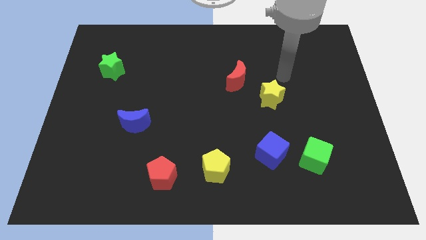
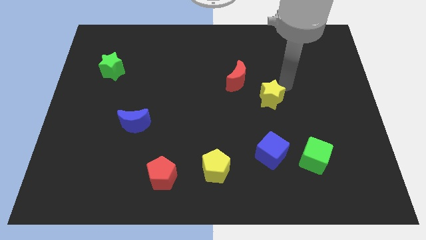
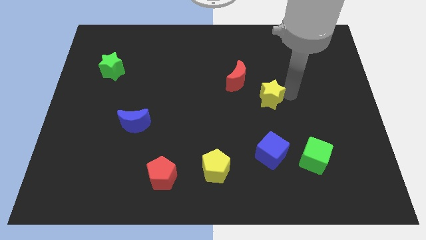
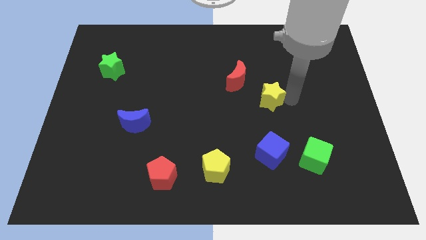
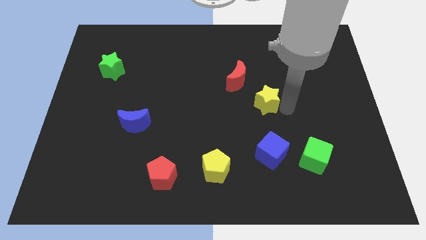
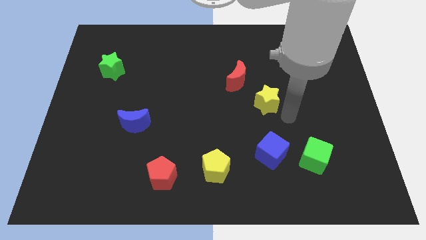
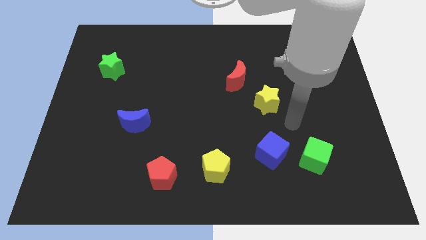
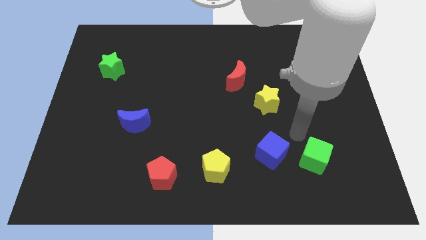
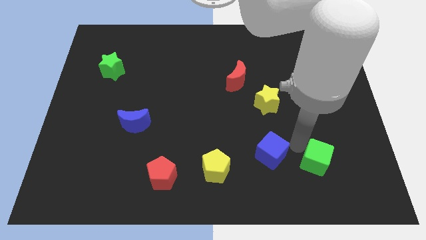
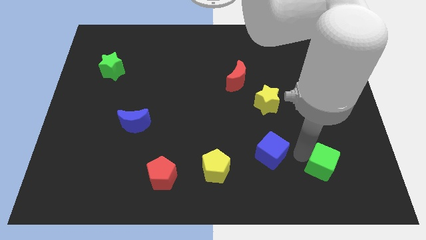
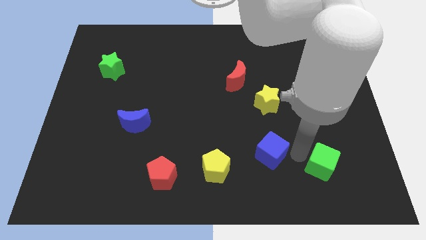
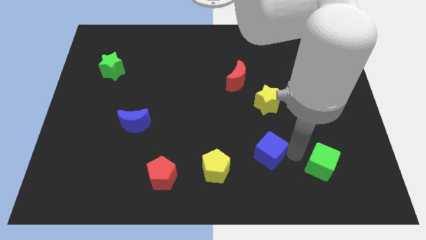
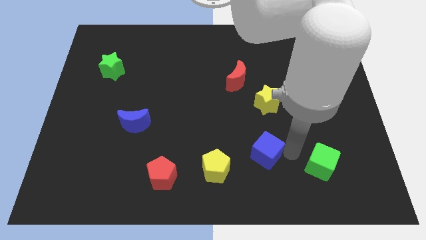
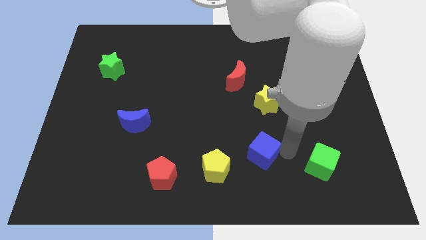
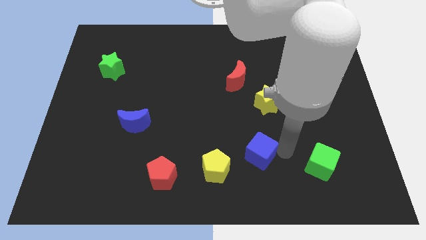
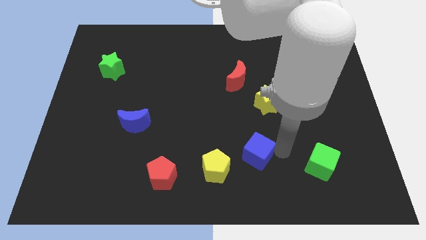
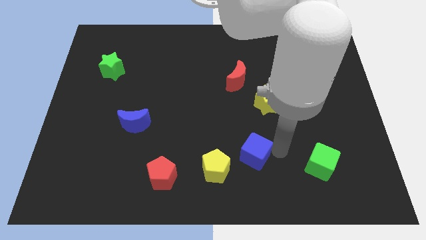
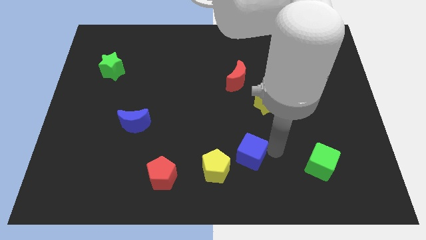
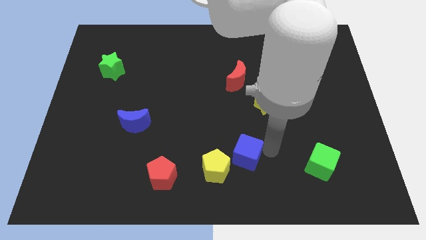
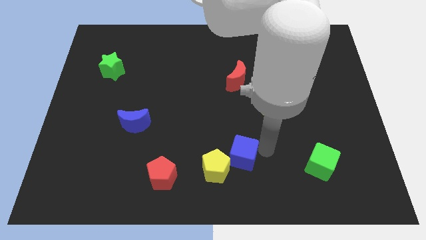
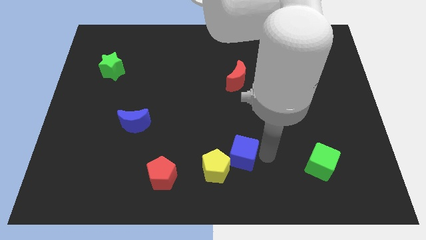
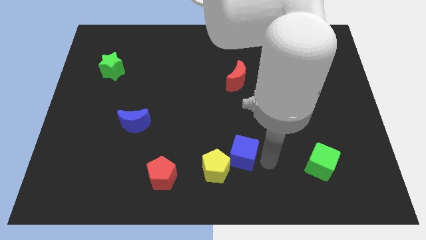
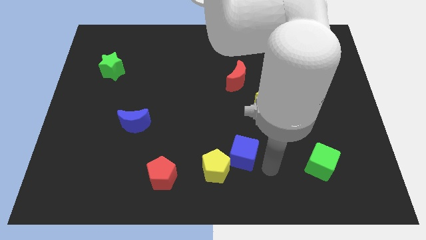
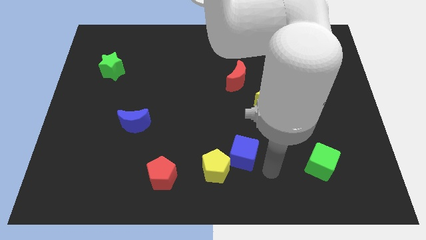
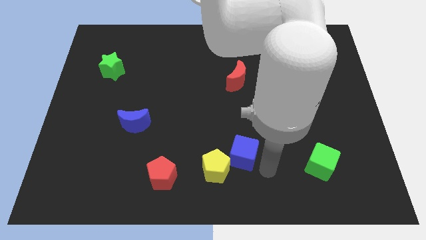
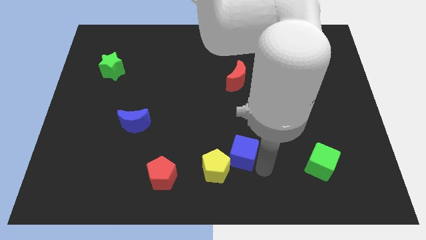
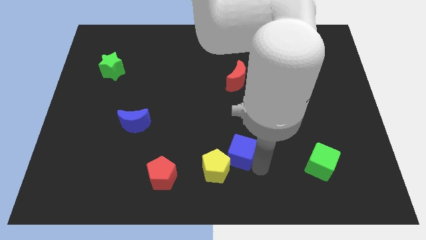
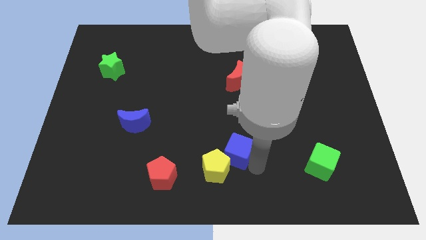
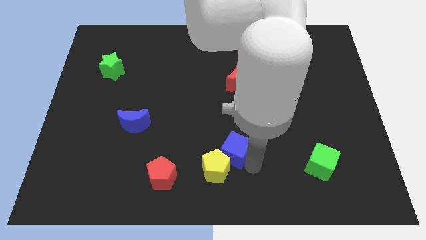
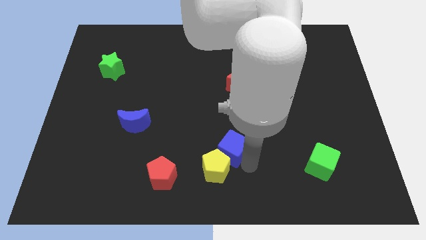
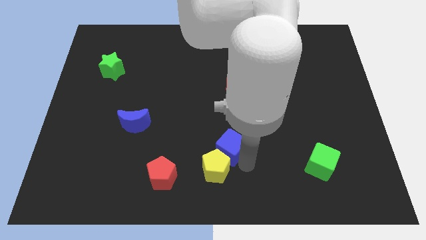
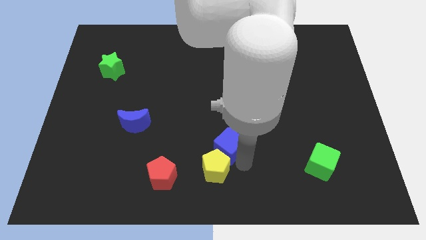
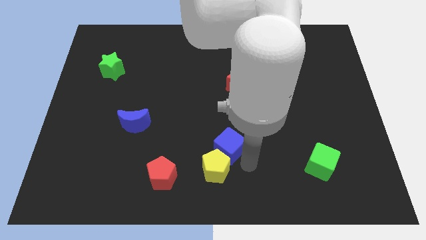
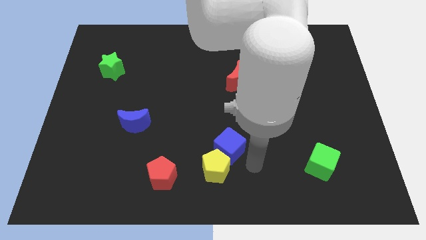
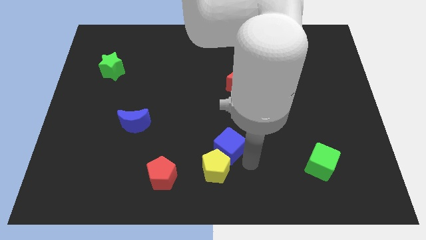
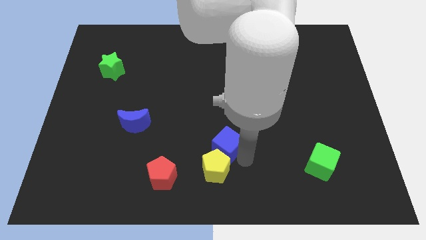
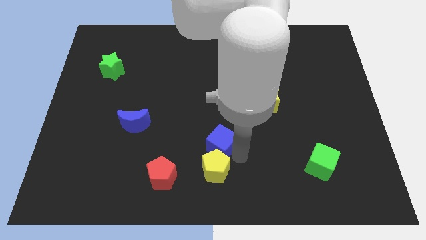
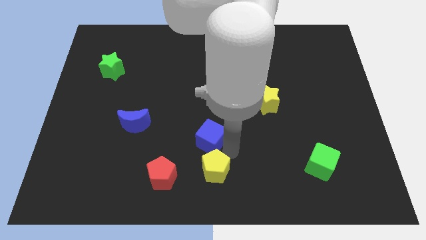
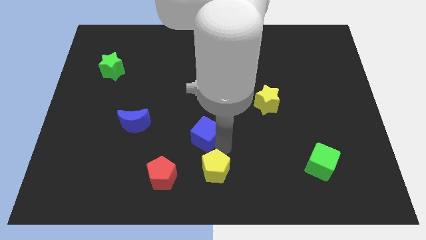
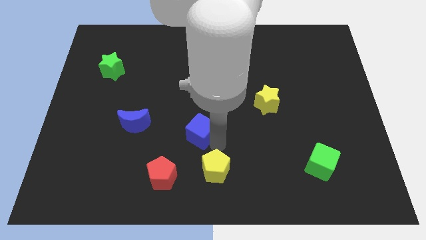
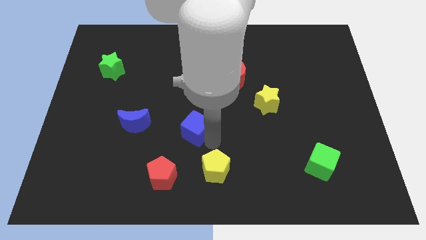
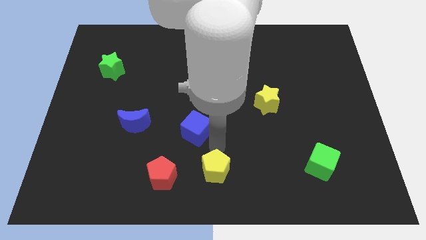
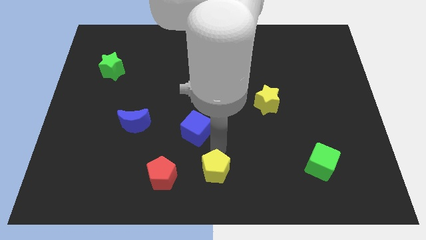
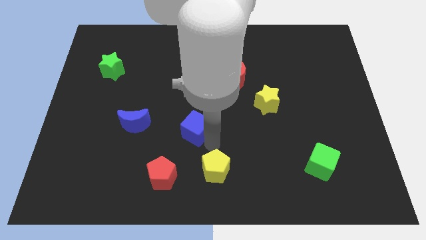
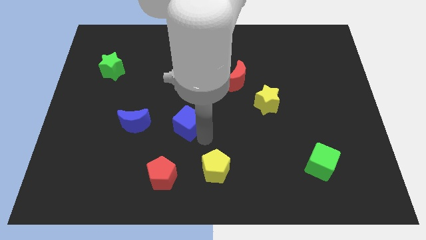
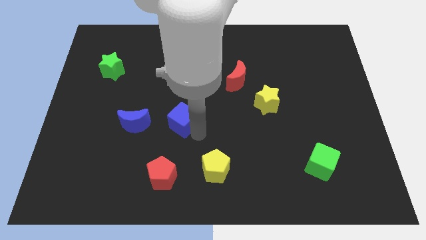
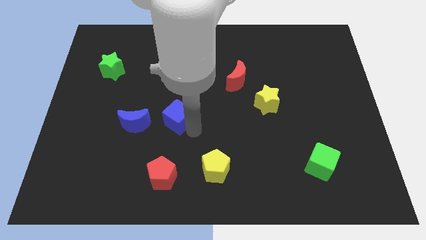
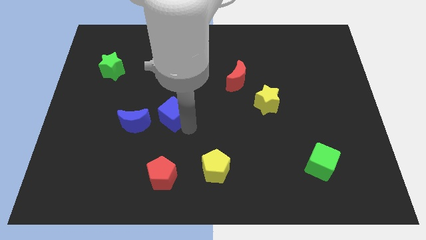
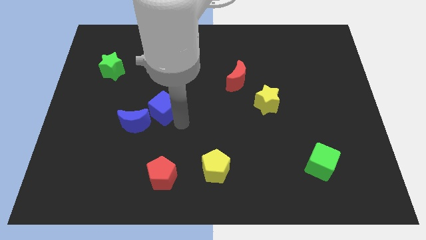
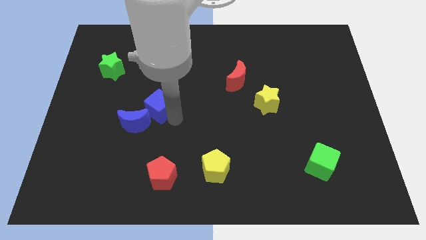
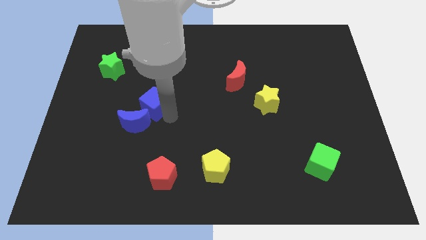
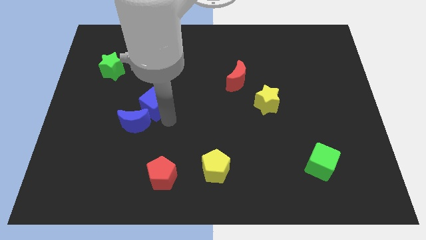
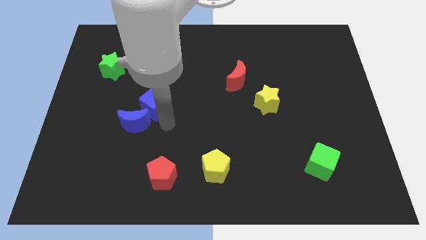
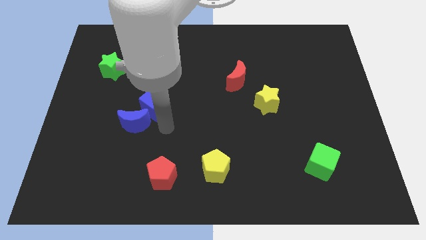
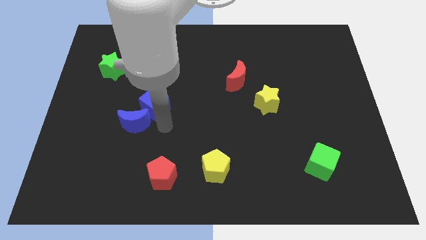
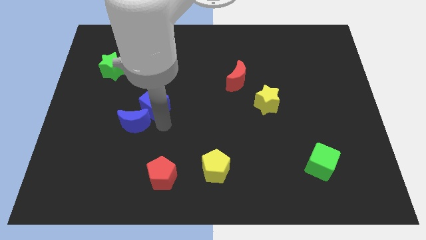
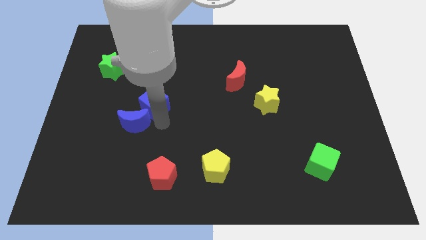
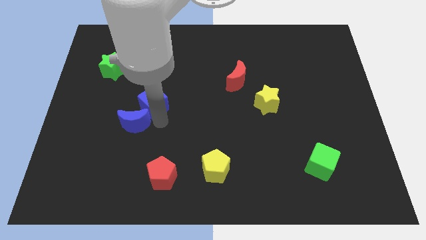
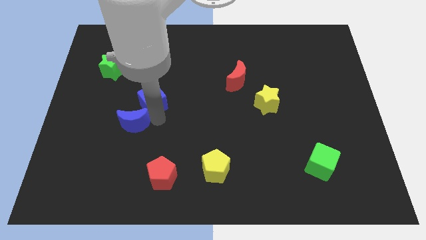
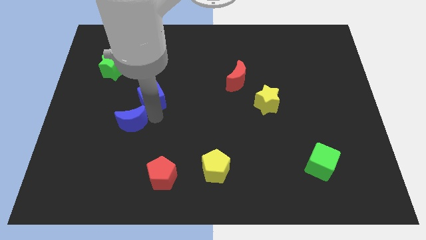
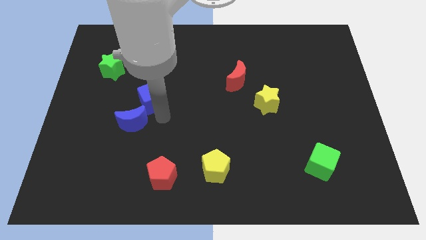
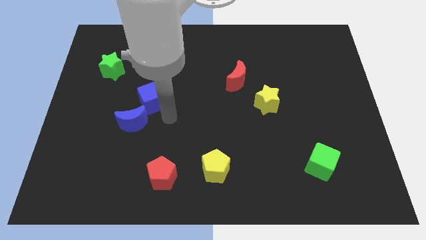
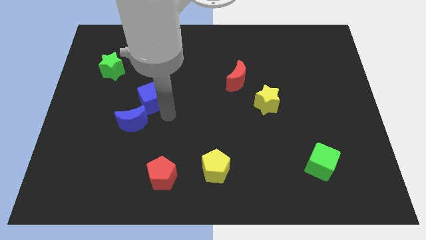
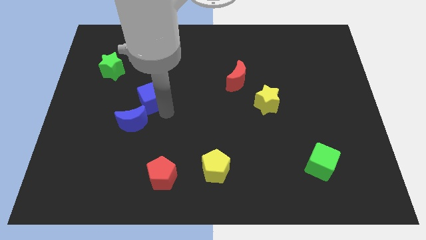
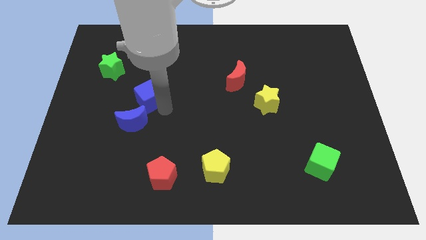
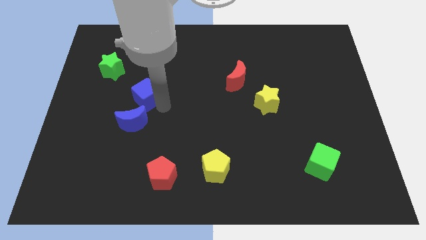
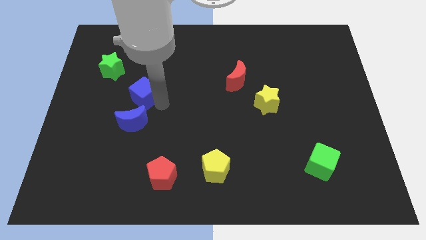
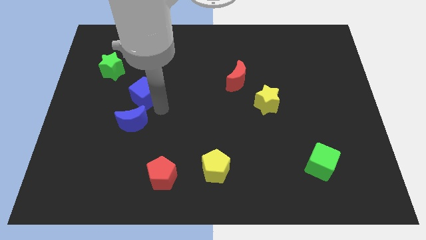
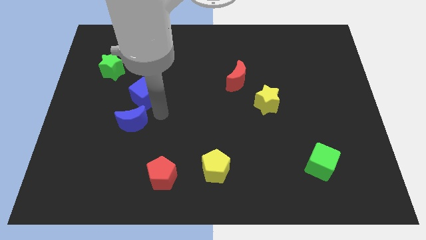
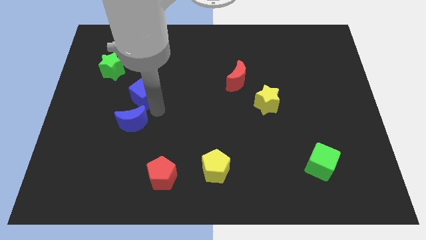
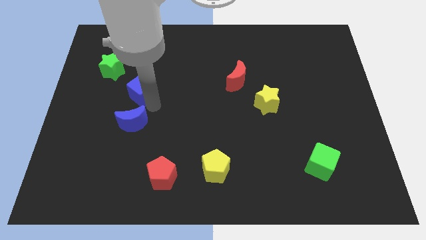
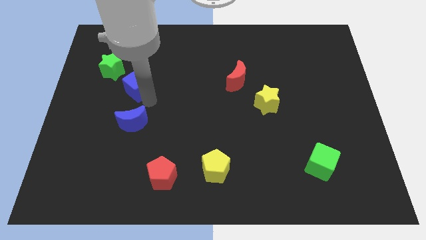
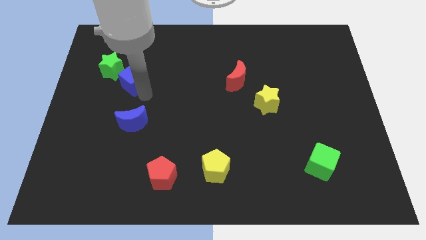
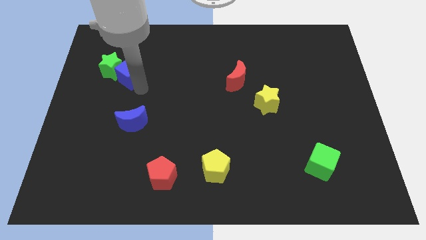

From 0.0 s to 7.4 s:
push the blue cube to the green star
